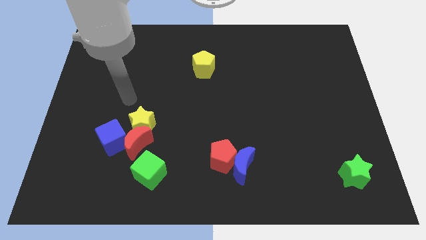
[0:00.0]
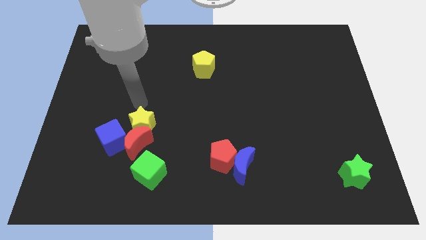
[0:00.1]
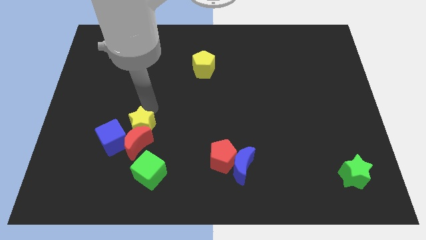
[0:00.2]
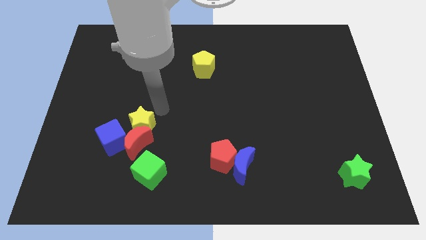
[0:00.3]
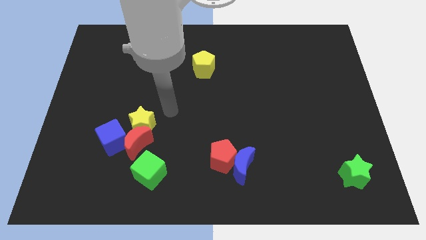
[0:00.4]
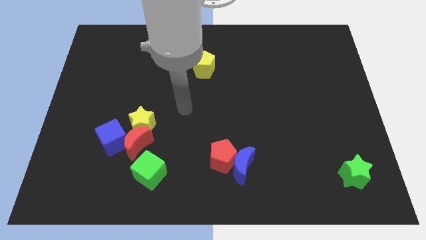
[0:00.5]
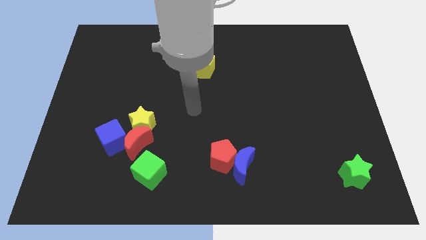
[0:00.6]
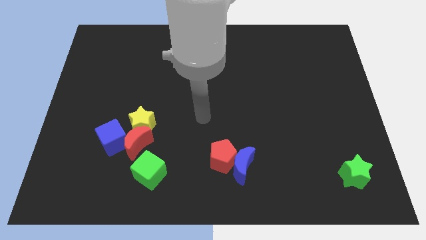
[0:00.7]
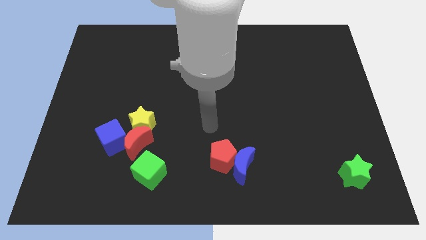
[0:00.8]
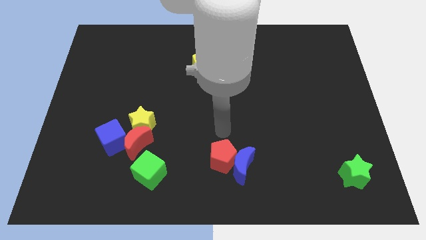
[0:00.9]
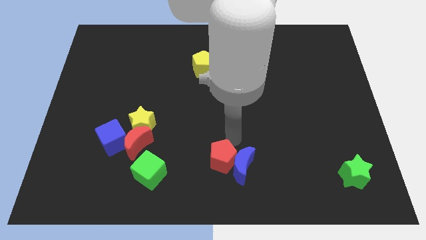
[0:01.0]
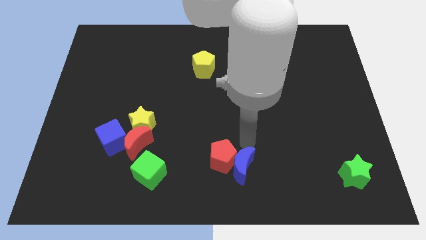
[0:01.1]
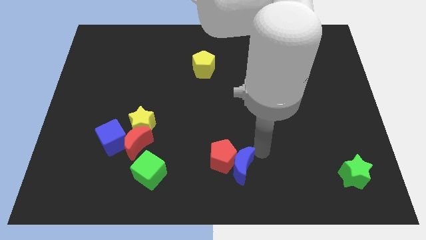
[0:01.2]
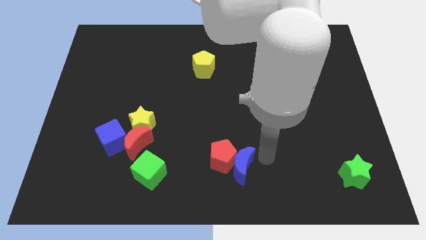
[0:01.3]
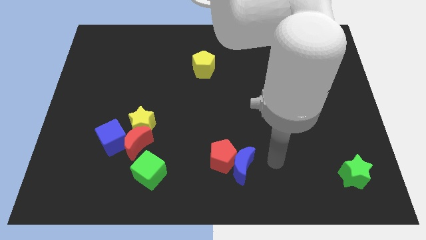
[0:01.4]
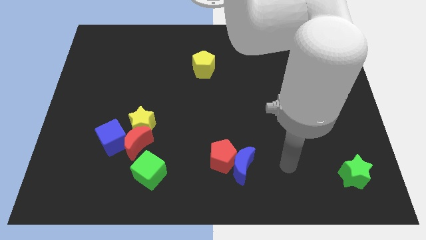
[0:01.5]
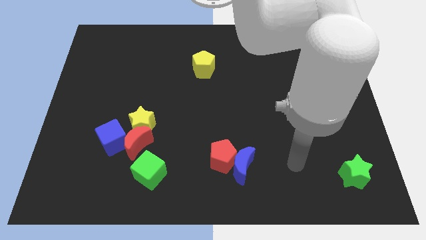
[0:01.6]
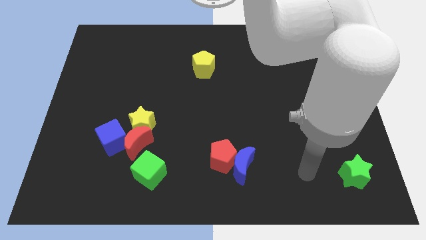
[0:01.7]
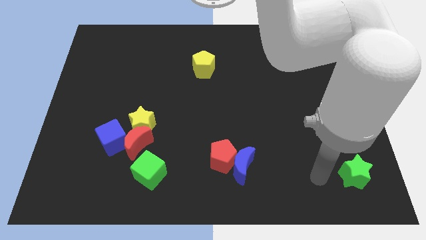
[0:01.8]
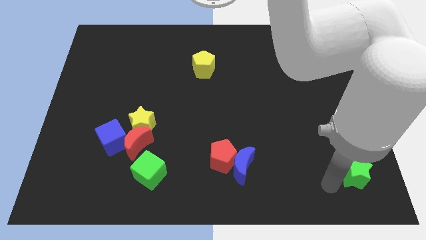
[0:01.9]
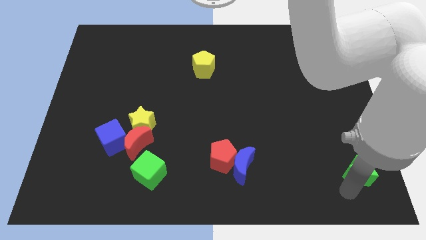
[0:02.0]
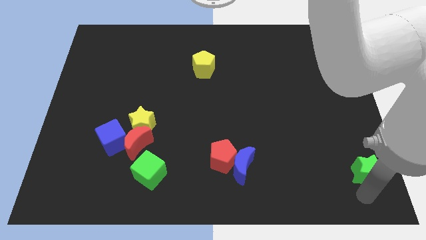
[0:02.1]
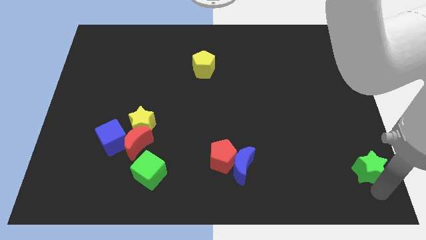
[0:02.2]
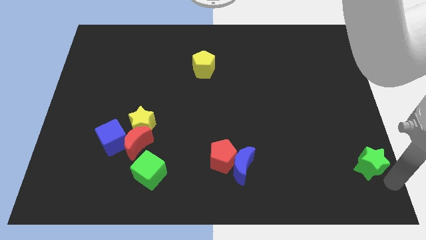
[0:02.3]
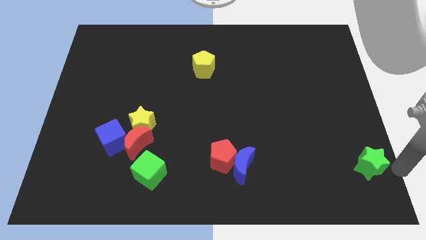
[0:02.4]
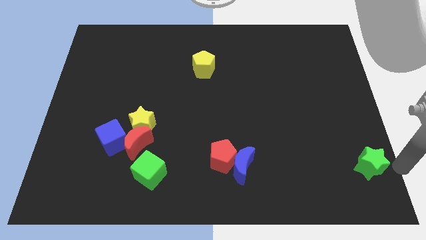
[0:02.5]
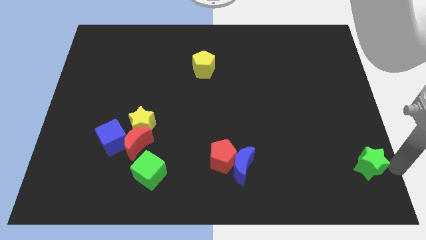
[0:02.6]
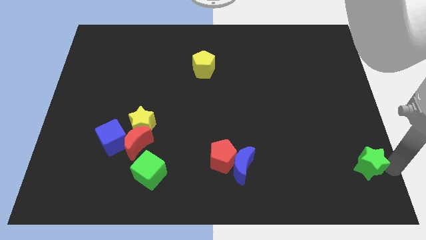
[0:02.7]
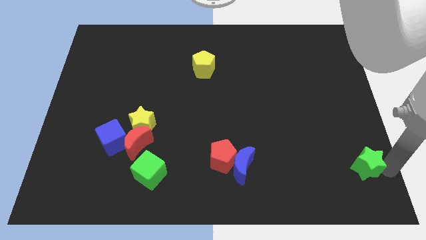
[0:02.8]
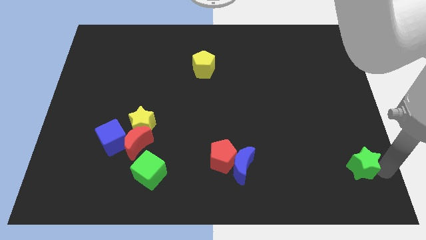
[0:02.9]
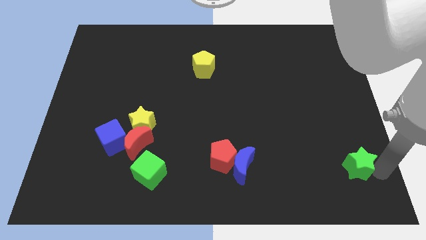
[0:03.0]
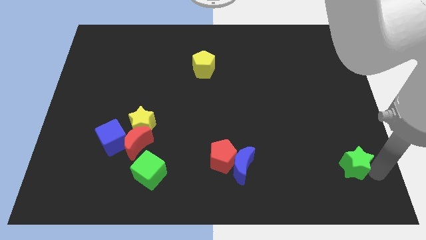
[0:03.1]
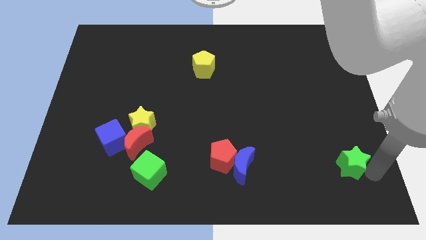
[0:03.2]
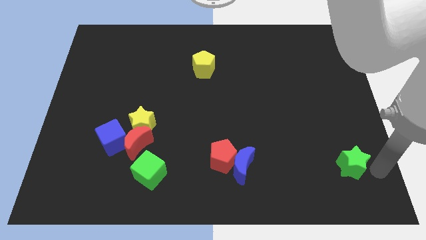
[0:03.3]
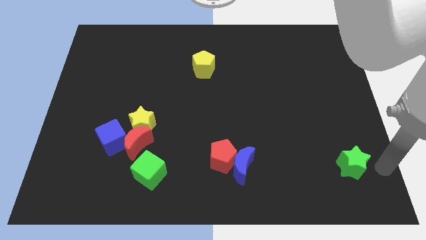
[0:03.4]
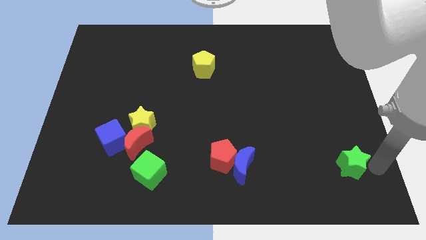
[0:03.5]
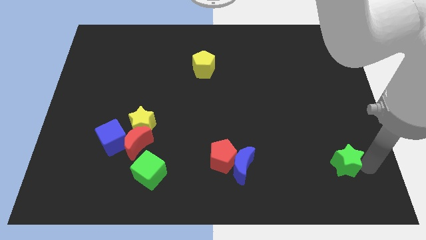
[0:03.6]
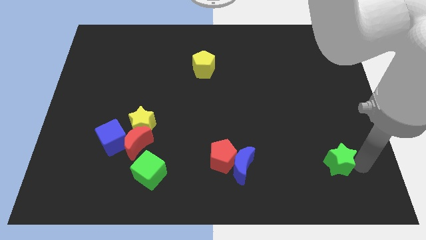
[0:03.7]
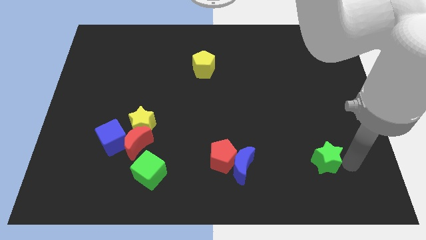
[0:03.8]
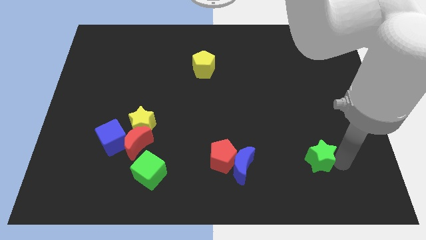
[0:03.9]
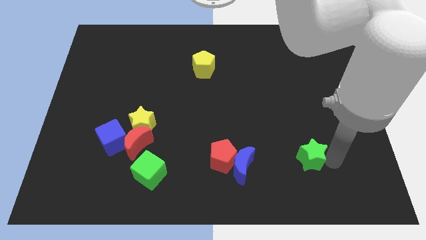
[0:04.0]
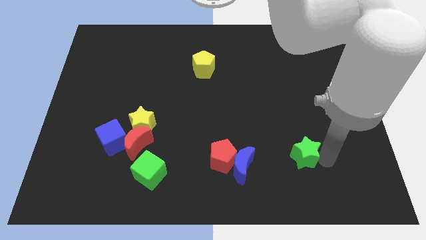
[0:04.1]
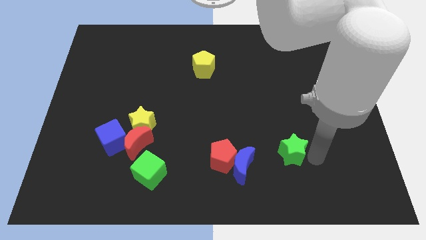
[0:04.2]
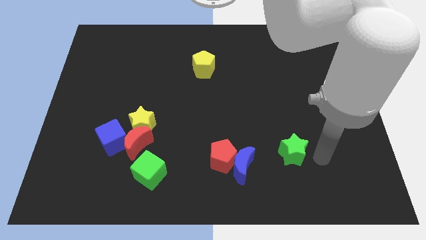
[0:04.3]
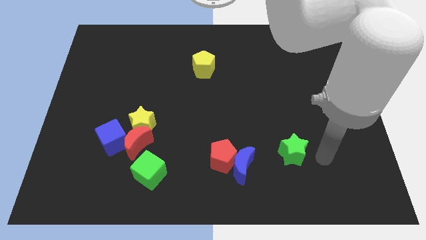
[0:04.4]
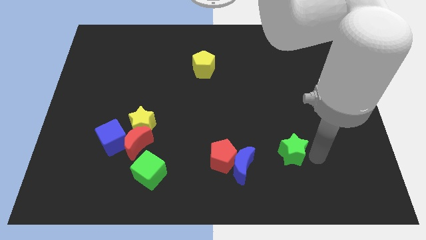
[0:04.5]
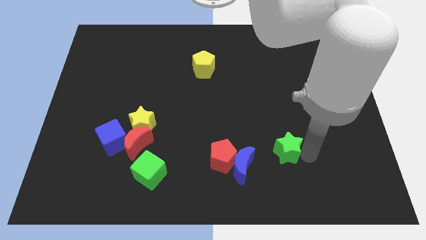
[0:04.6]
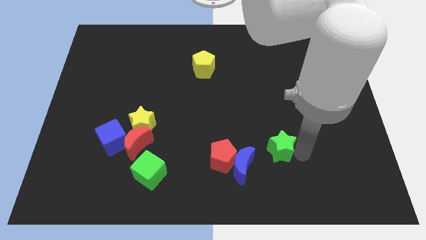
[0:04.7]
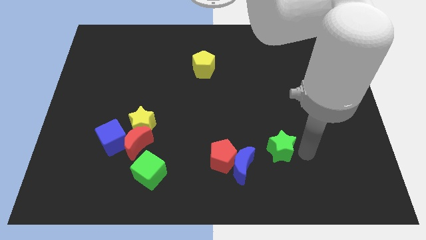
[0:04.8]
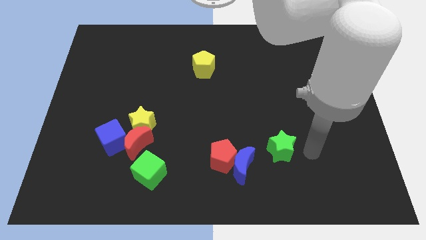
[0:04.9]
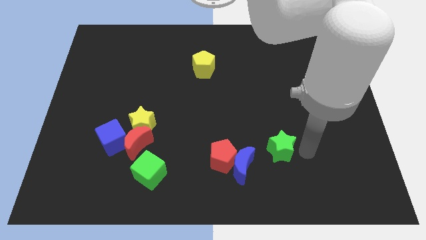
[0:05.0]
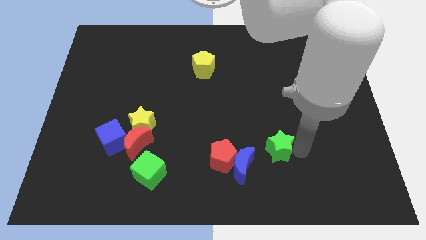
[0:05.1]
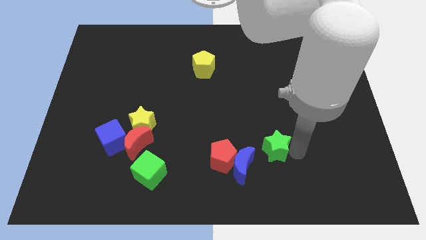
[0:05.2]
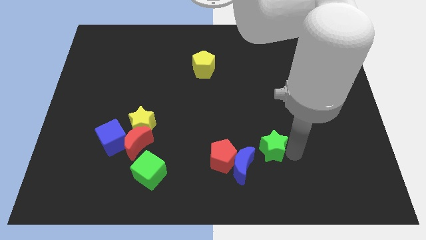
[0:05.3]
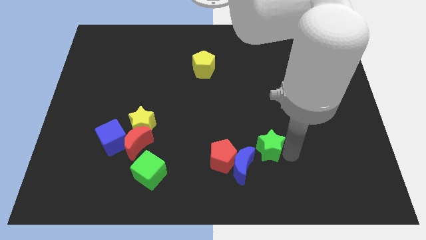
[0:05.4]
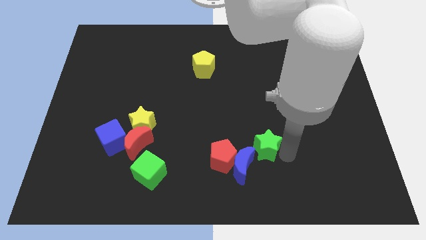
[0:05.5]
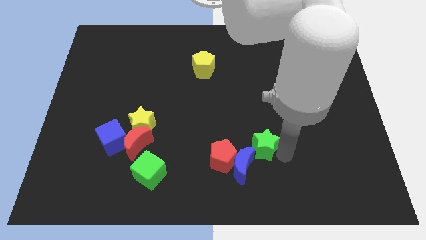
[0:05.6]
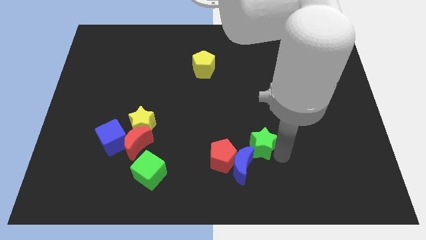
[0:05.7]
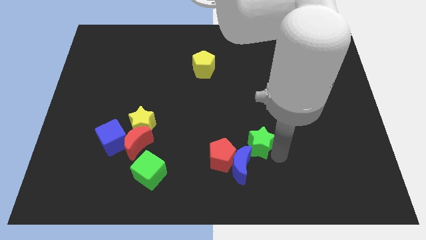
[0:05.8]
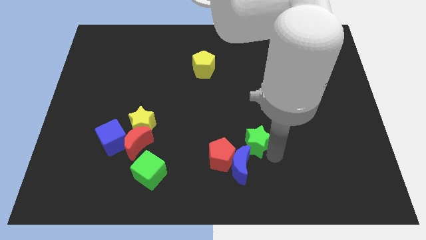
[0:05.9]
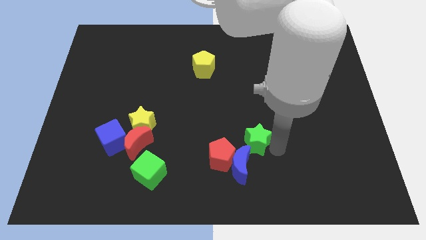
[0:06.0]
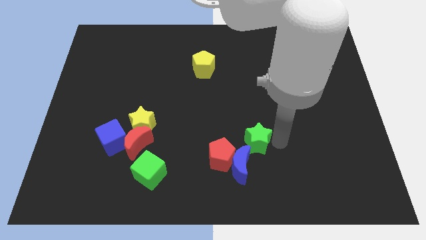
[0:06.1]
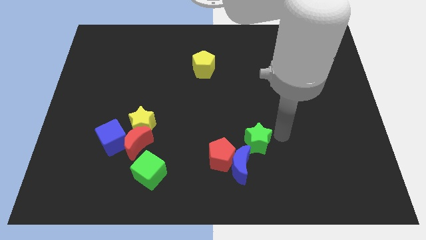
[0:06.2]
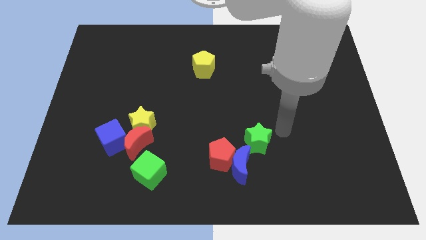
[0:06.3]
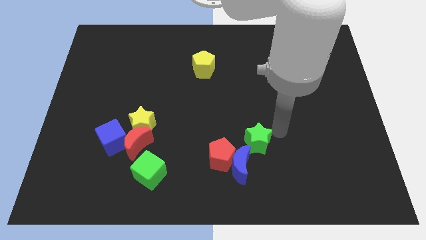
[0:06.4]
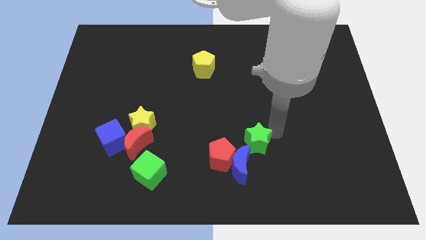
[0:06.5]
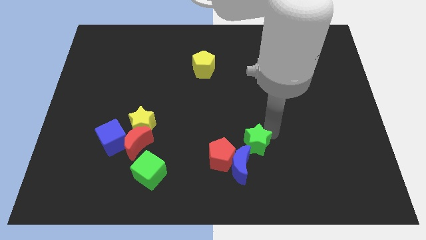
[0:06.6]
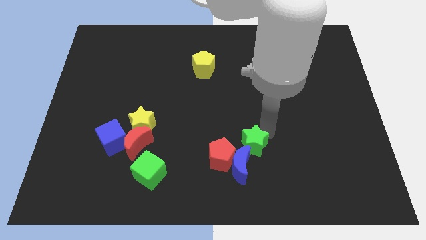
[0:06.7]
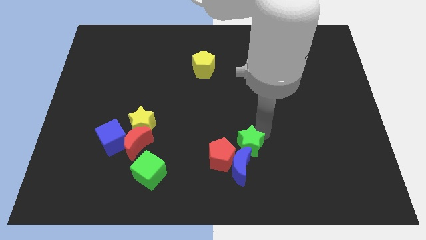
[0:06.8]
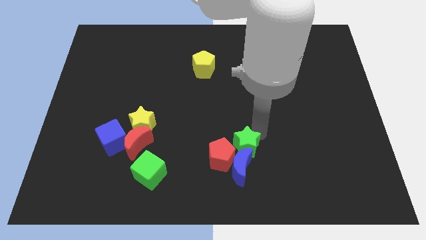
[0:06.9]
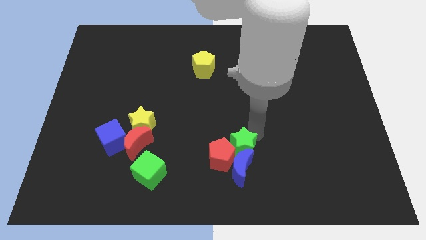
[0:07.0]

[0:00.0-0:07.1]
put the green star towards the red pentagon

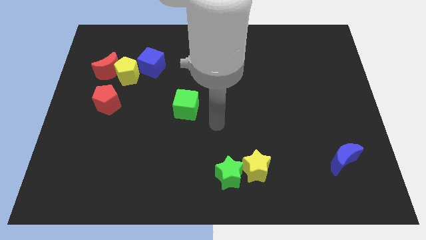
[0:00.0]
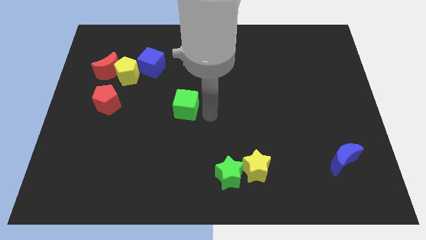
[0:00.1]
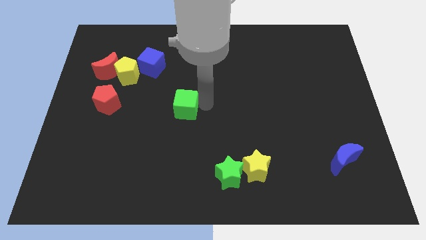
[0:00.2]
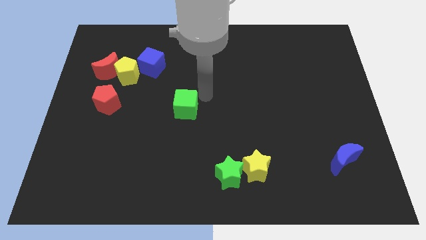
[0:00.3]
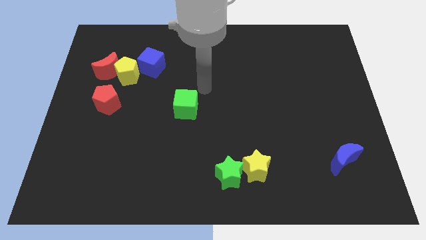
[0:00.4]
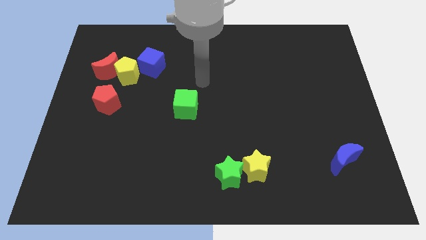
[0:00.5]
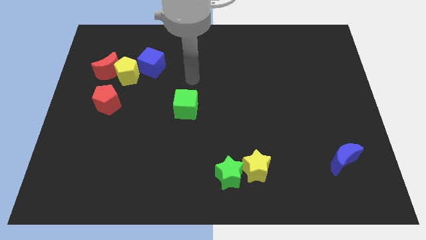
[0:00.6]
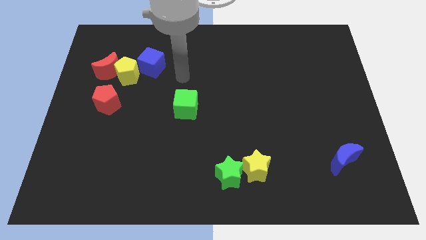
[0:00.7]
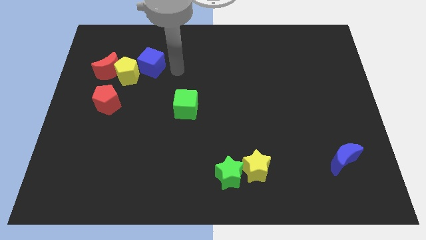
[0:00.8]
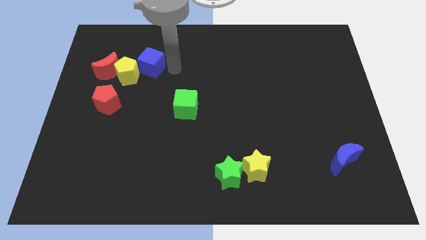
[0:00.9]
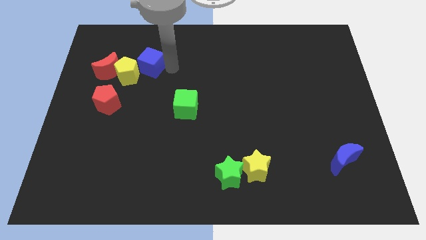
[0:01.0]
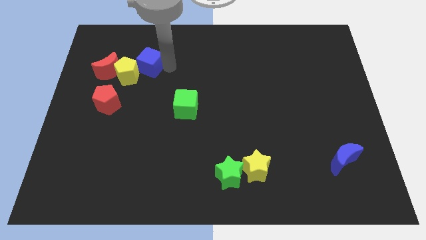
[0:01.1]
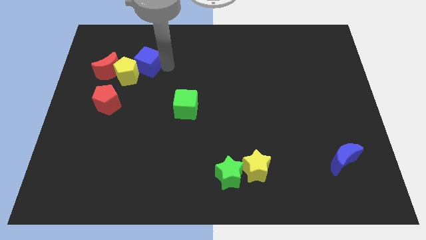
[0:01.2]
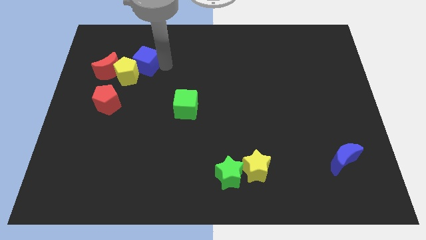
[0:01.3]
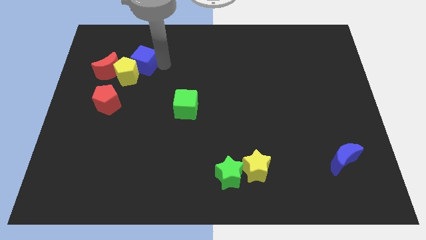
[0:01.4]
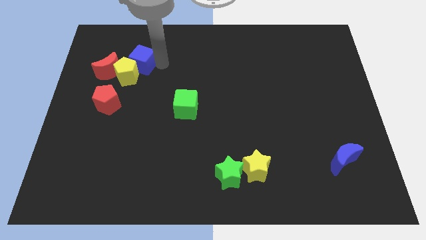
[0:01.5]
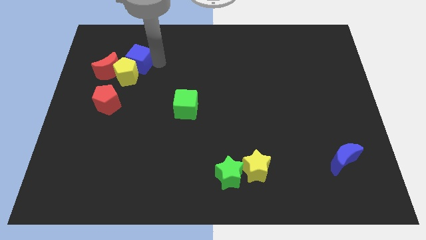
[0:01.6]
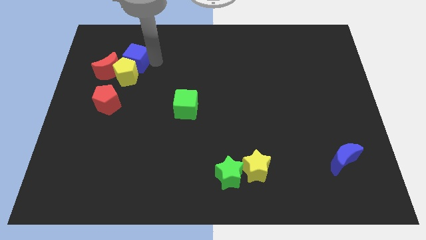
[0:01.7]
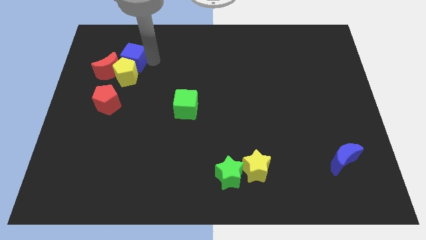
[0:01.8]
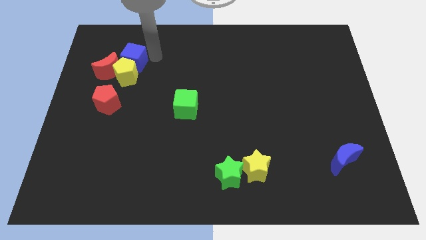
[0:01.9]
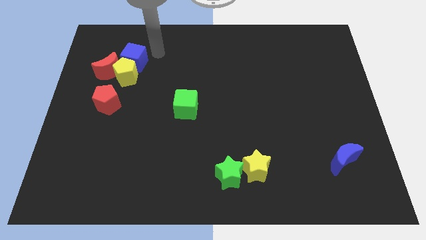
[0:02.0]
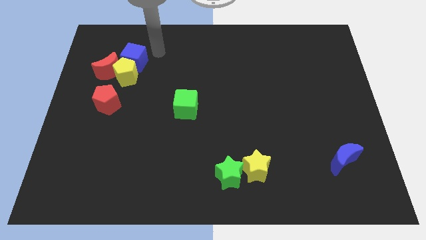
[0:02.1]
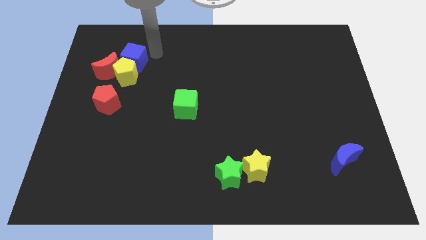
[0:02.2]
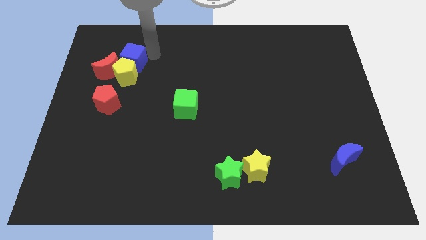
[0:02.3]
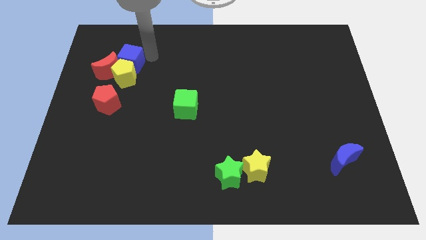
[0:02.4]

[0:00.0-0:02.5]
put the blue cube to the red moon
